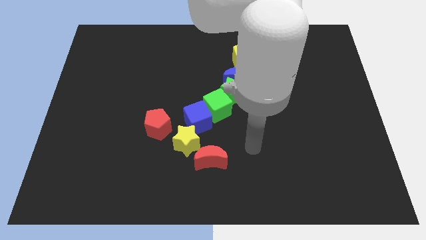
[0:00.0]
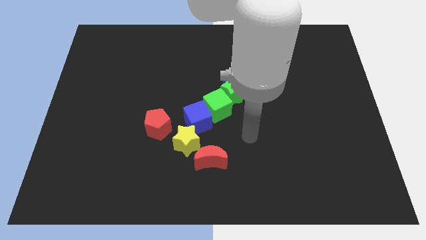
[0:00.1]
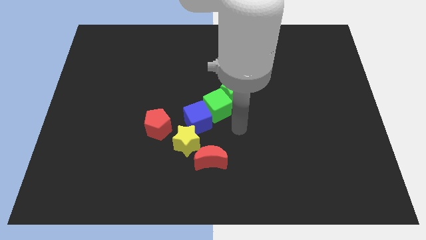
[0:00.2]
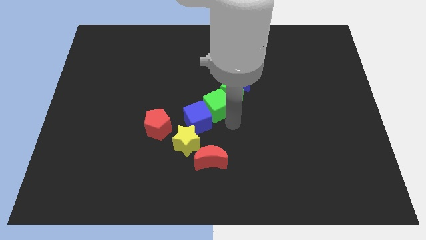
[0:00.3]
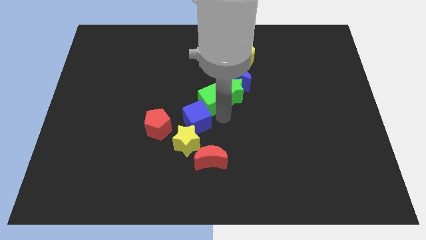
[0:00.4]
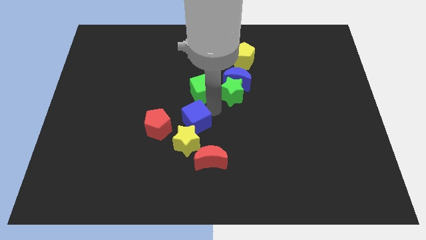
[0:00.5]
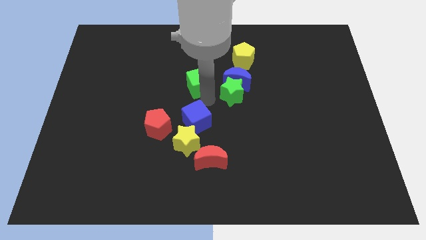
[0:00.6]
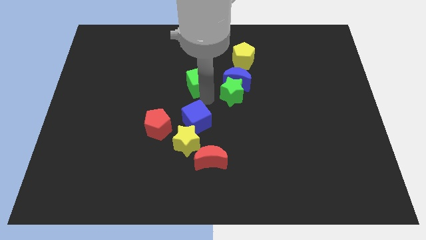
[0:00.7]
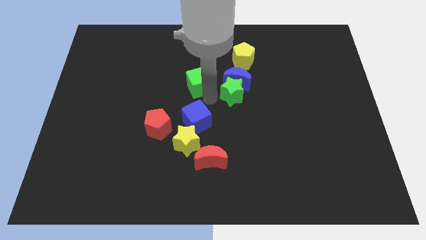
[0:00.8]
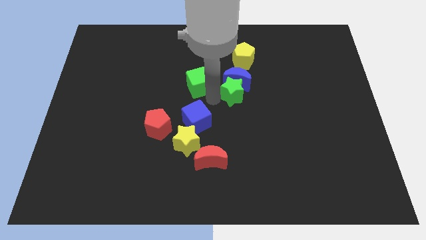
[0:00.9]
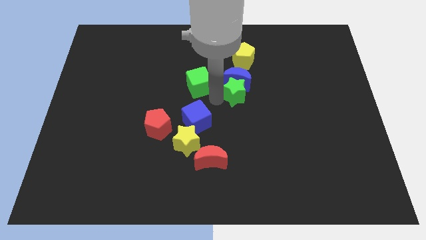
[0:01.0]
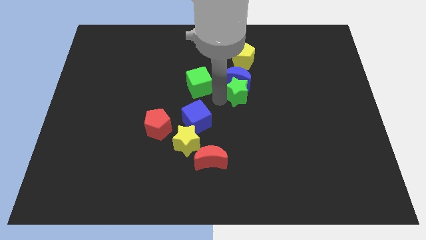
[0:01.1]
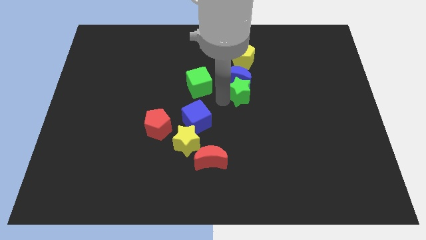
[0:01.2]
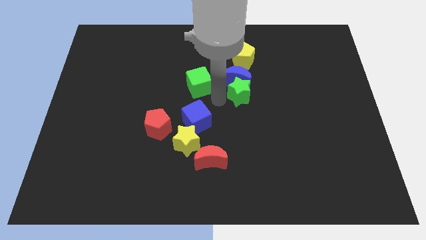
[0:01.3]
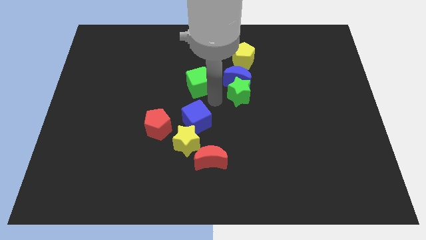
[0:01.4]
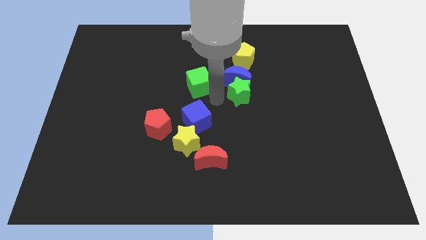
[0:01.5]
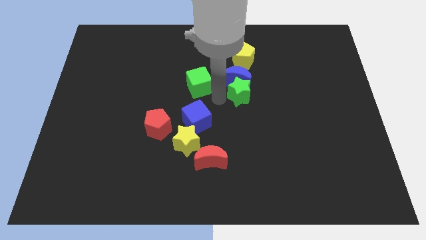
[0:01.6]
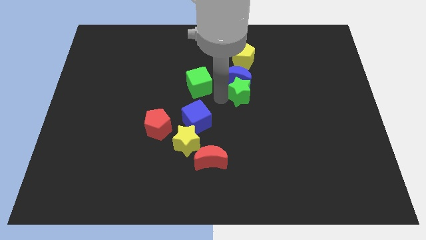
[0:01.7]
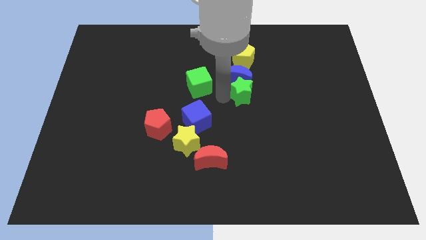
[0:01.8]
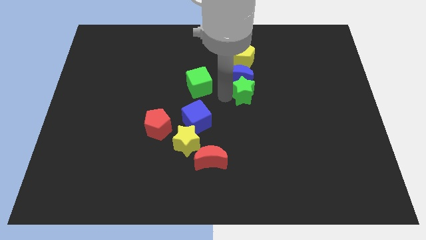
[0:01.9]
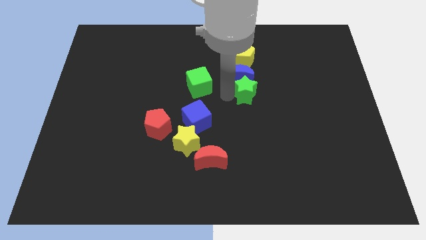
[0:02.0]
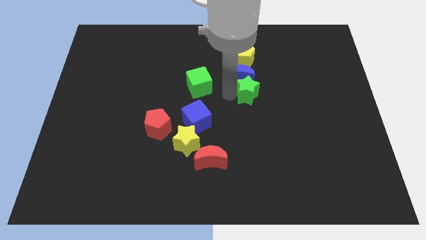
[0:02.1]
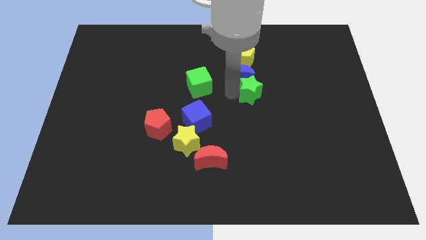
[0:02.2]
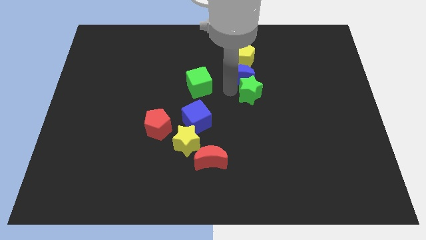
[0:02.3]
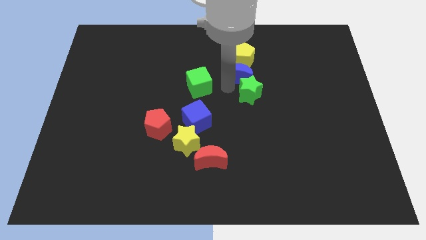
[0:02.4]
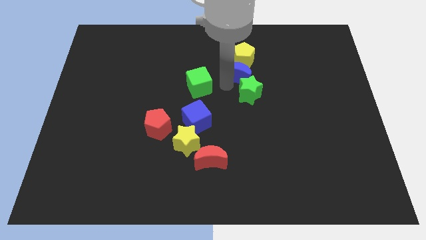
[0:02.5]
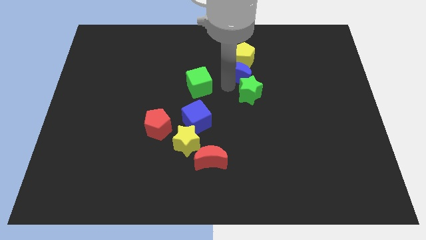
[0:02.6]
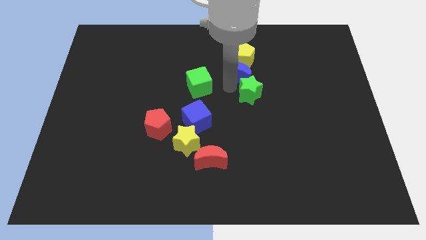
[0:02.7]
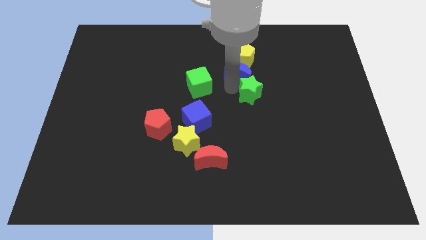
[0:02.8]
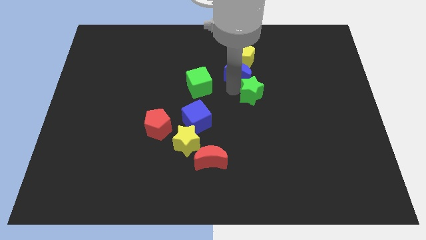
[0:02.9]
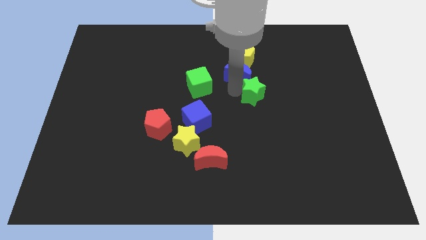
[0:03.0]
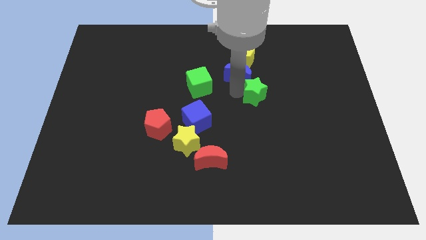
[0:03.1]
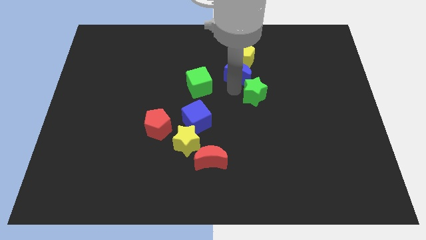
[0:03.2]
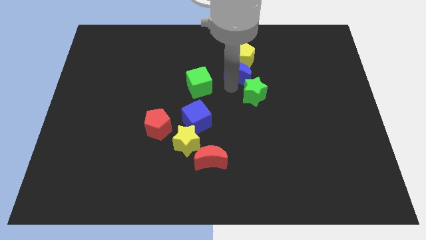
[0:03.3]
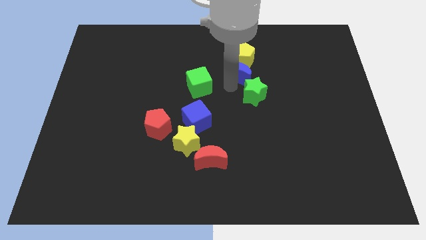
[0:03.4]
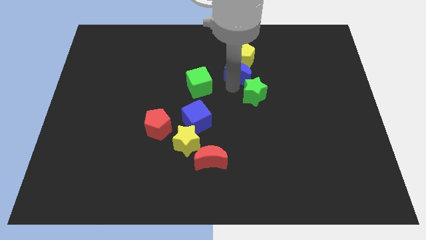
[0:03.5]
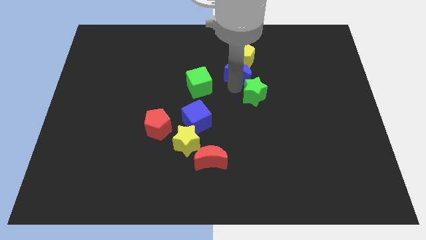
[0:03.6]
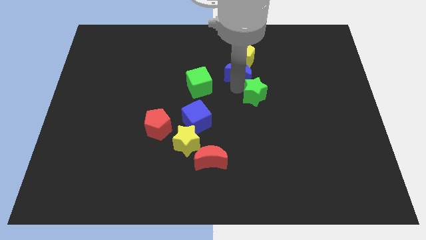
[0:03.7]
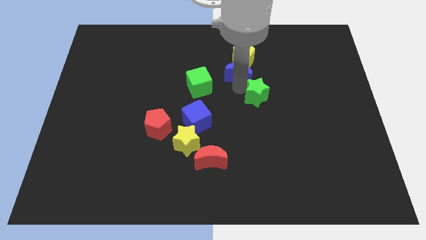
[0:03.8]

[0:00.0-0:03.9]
move the green star away from the blue moon and green cube

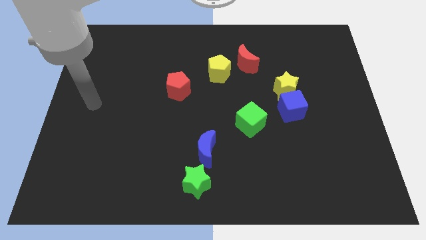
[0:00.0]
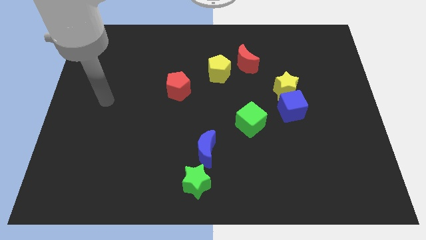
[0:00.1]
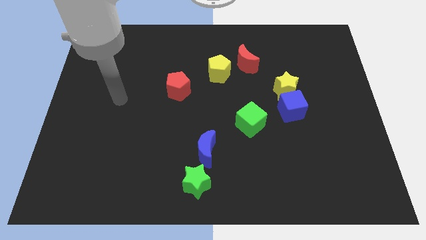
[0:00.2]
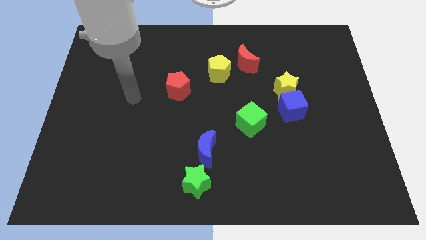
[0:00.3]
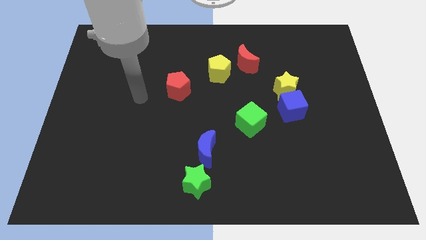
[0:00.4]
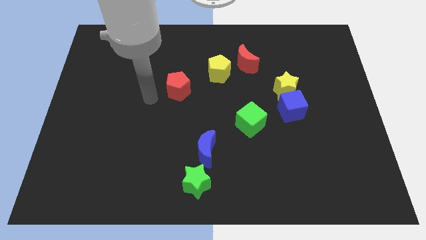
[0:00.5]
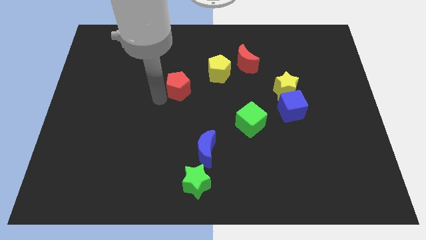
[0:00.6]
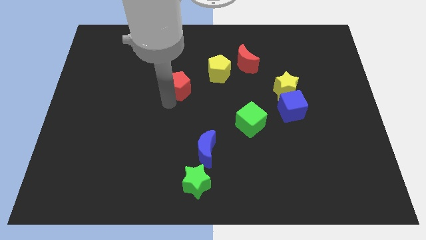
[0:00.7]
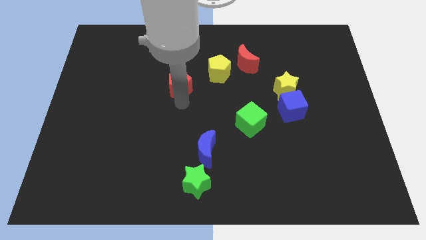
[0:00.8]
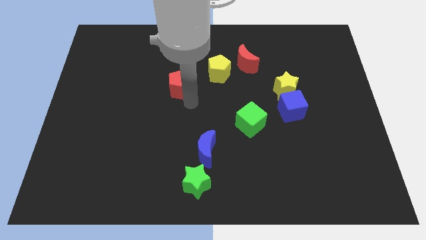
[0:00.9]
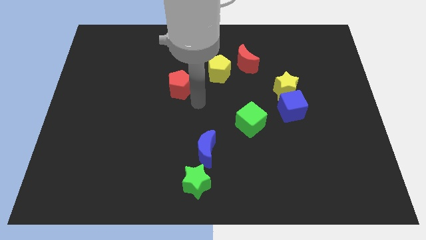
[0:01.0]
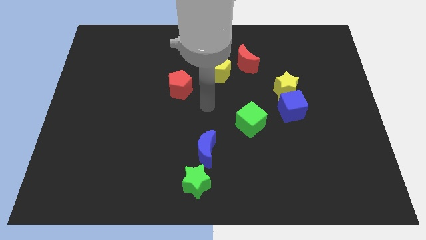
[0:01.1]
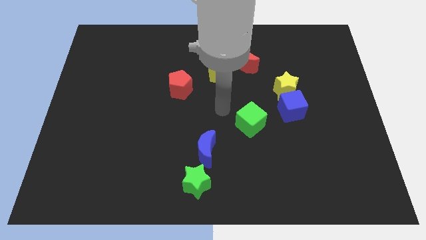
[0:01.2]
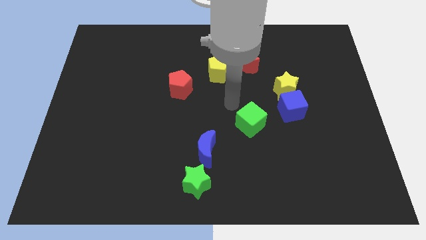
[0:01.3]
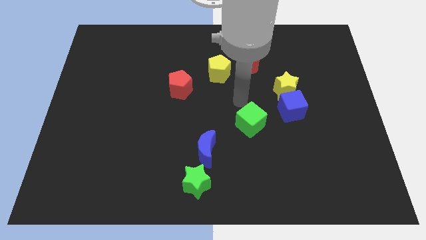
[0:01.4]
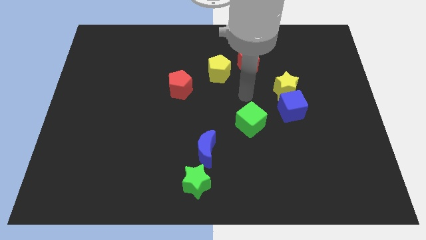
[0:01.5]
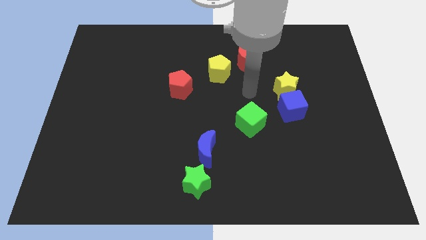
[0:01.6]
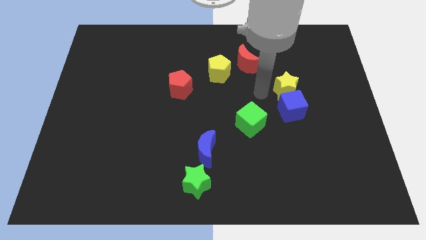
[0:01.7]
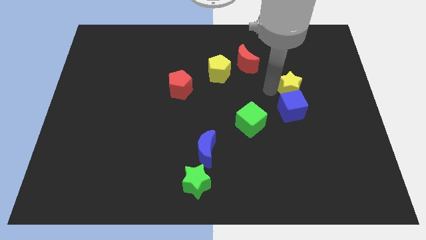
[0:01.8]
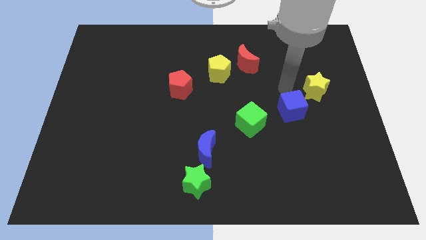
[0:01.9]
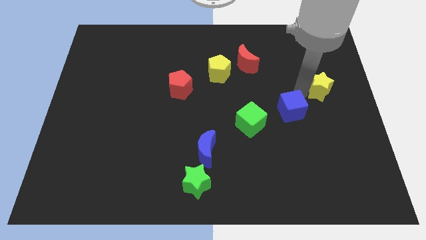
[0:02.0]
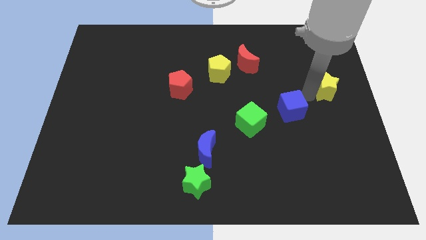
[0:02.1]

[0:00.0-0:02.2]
pull the blue cube apart from the yellow star

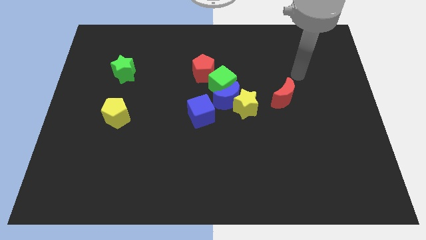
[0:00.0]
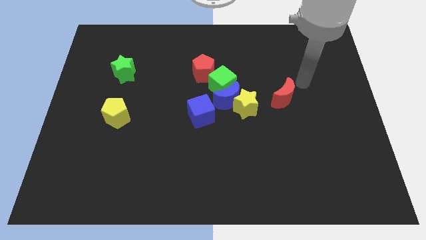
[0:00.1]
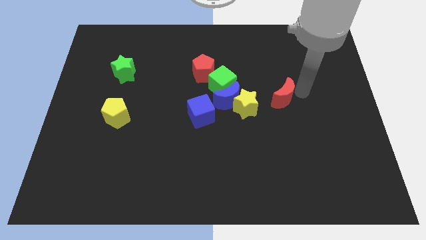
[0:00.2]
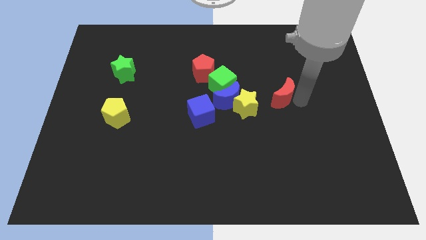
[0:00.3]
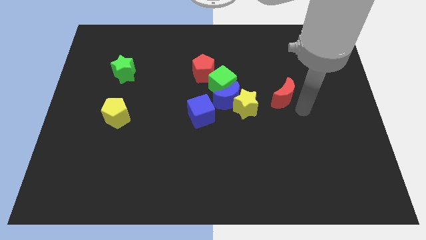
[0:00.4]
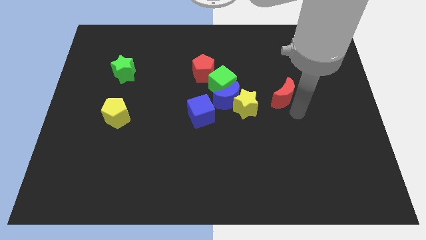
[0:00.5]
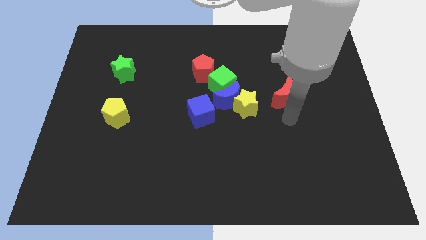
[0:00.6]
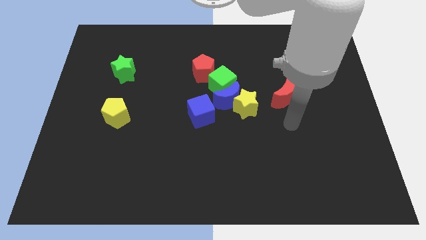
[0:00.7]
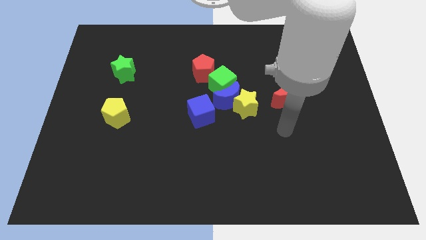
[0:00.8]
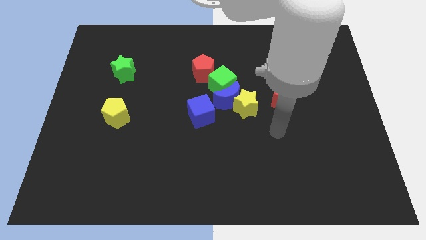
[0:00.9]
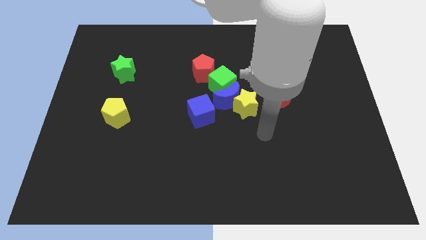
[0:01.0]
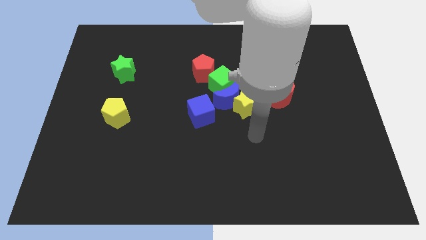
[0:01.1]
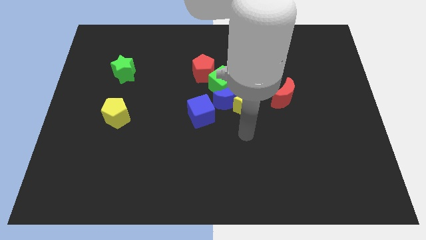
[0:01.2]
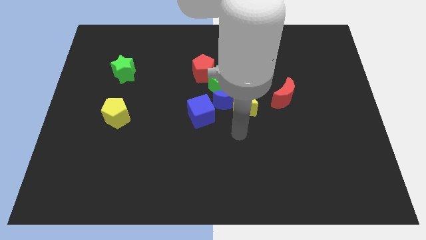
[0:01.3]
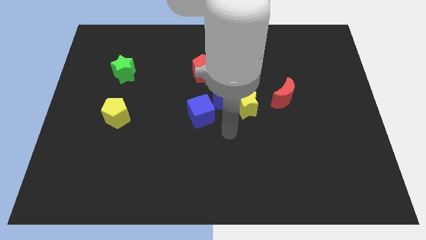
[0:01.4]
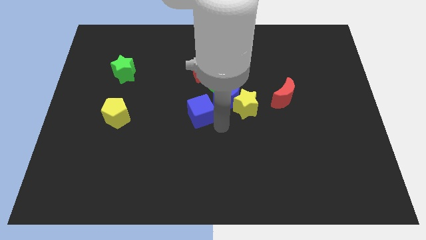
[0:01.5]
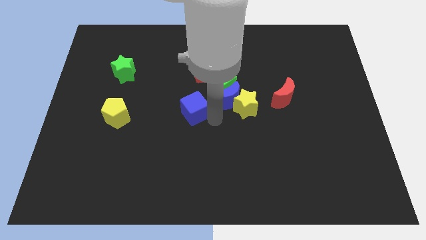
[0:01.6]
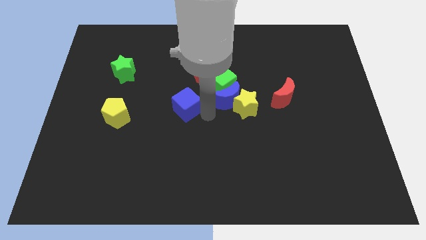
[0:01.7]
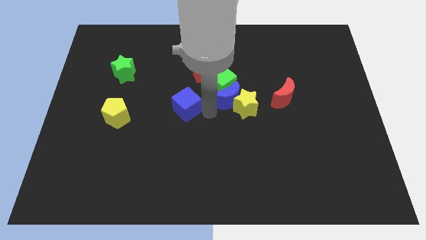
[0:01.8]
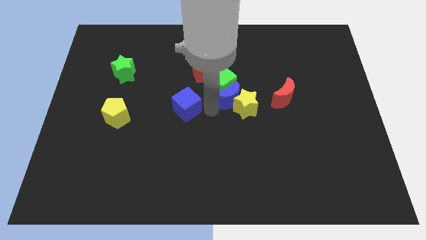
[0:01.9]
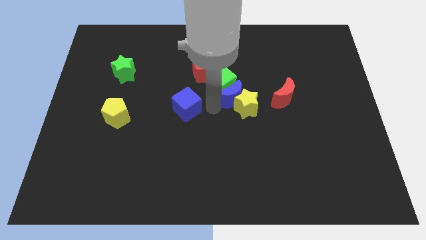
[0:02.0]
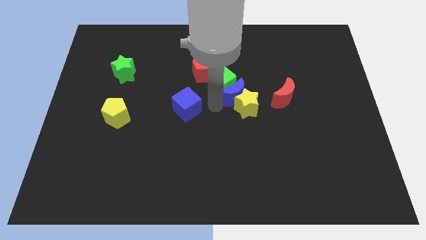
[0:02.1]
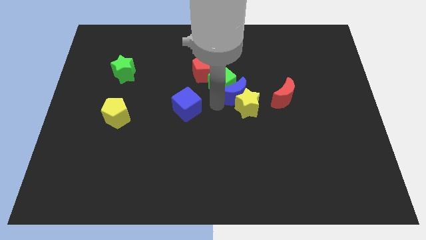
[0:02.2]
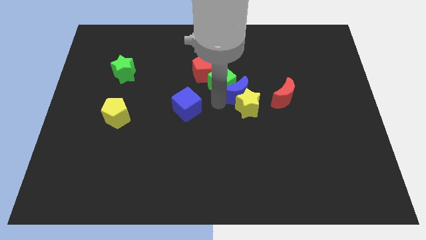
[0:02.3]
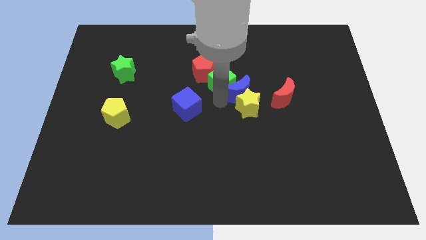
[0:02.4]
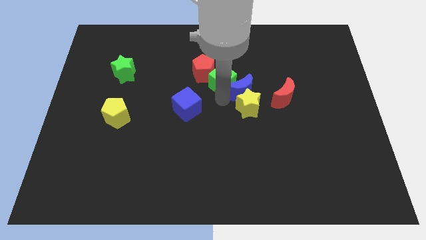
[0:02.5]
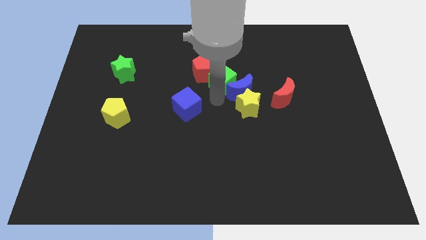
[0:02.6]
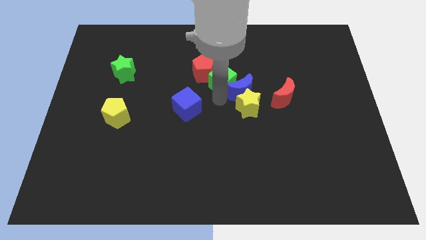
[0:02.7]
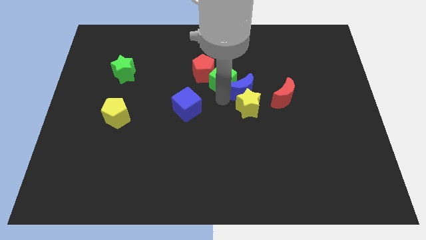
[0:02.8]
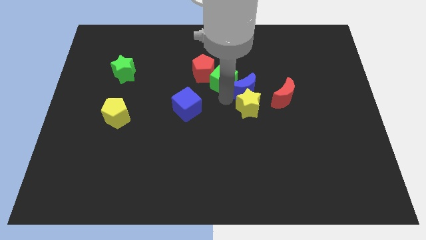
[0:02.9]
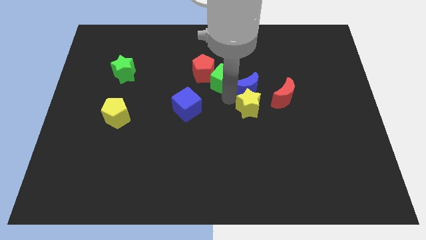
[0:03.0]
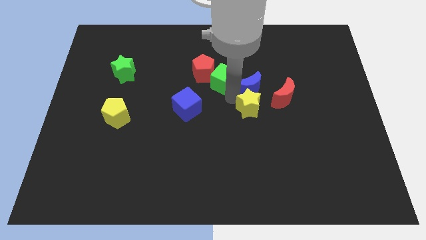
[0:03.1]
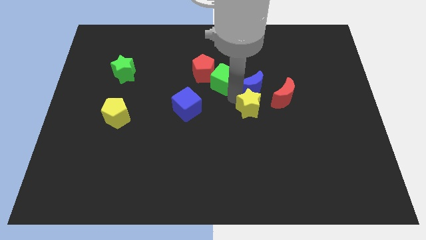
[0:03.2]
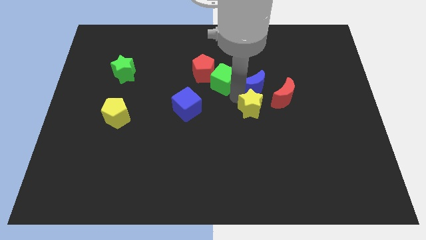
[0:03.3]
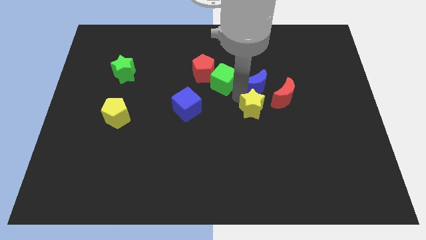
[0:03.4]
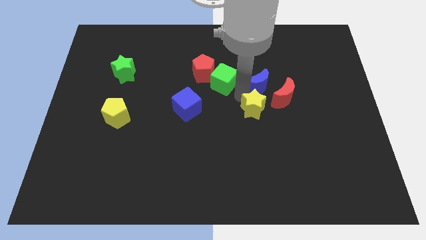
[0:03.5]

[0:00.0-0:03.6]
pull the blue moon apart from the yellow star, green cube, and blue cube
